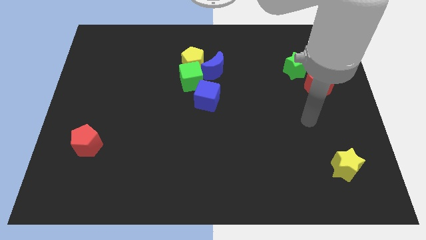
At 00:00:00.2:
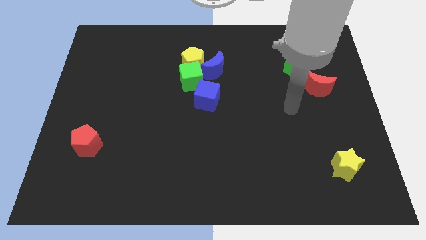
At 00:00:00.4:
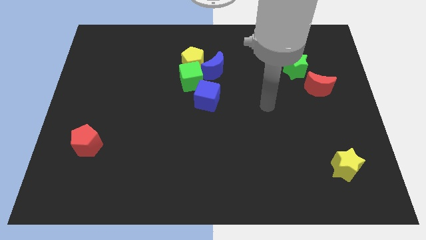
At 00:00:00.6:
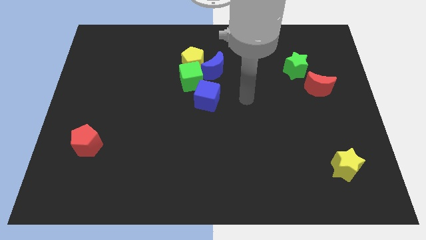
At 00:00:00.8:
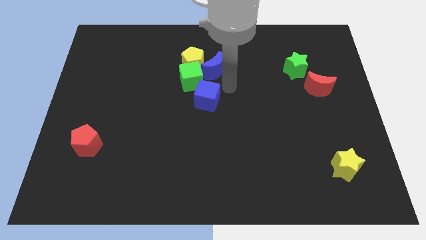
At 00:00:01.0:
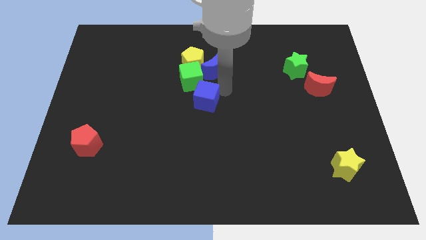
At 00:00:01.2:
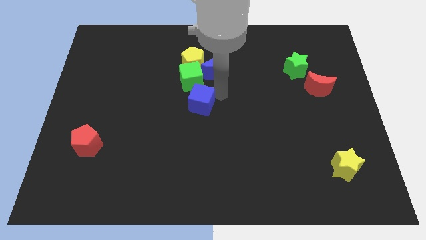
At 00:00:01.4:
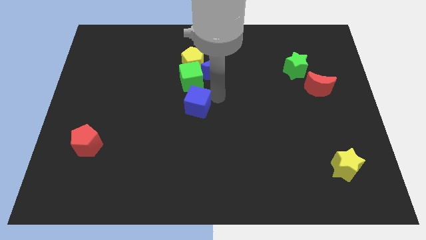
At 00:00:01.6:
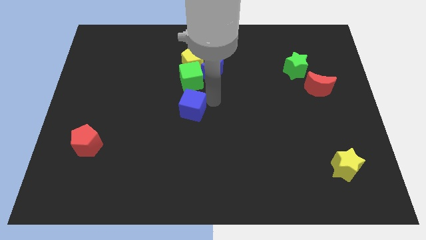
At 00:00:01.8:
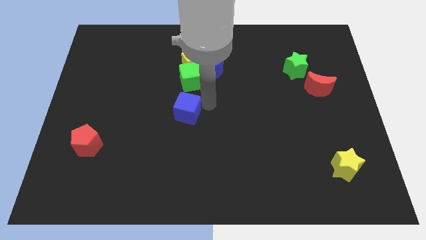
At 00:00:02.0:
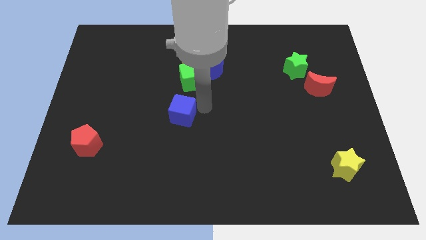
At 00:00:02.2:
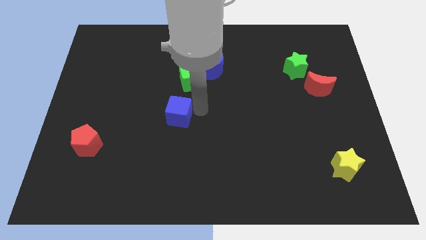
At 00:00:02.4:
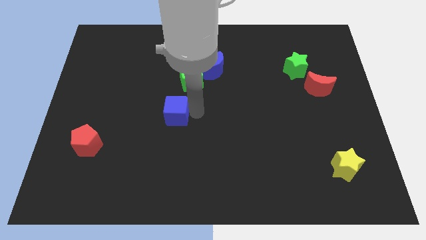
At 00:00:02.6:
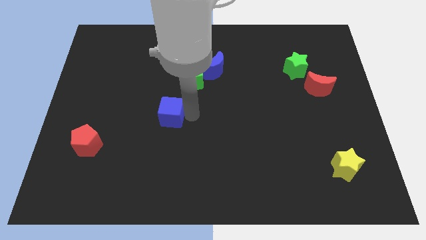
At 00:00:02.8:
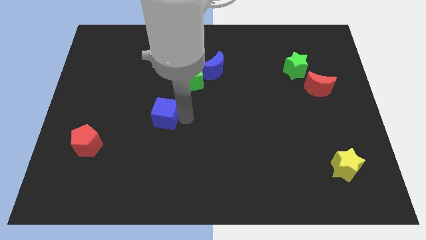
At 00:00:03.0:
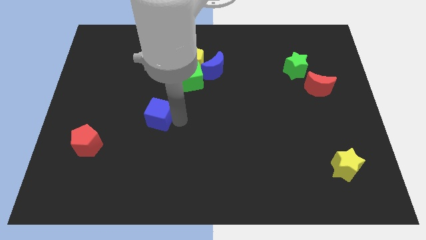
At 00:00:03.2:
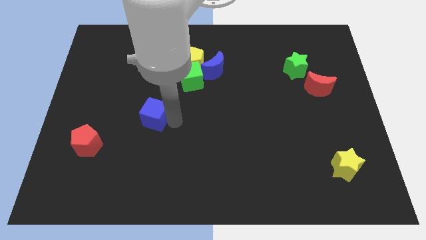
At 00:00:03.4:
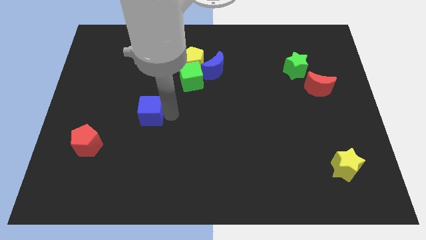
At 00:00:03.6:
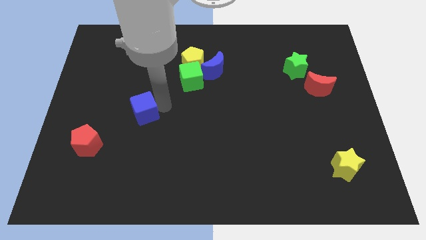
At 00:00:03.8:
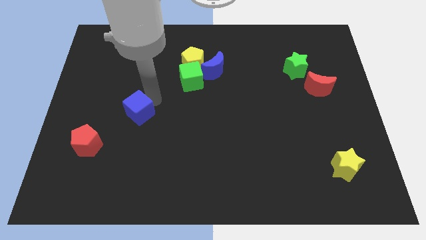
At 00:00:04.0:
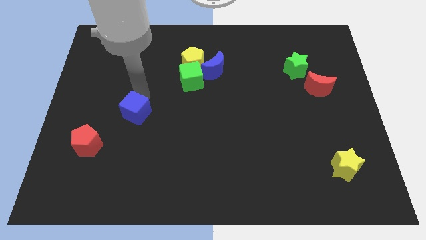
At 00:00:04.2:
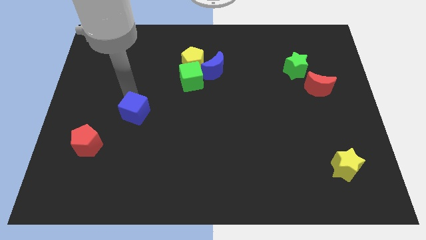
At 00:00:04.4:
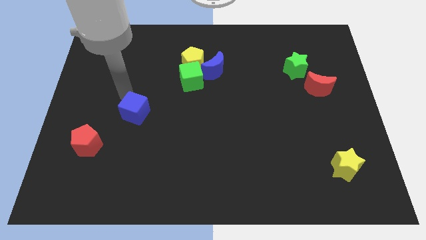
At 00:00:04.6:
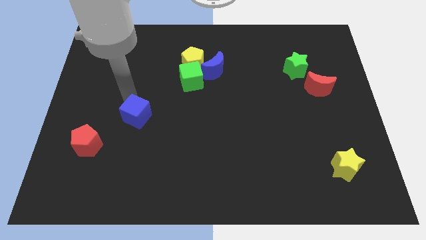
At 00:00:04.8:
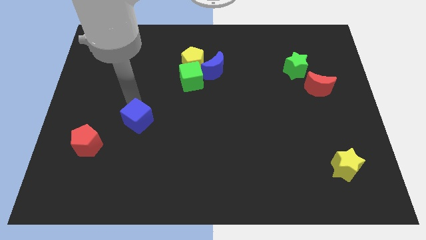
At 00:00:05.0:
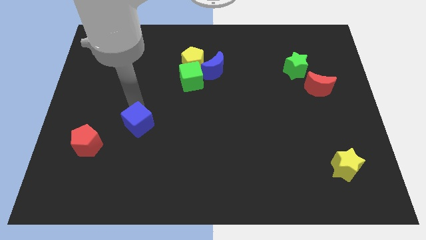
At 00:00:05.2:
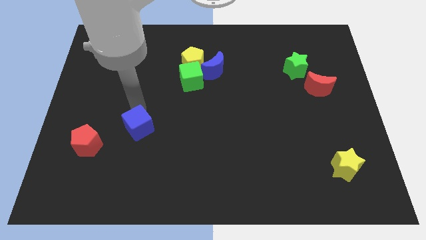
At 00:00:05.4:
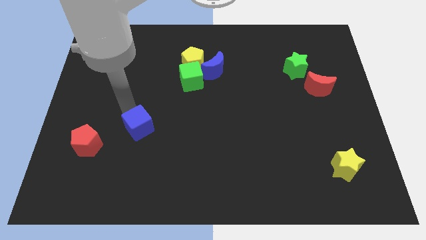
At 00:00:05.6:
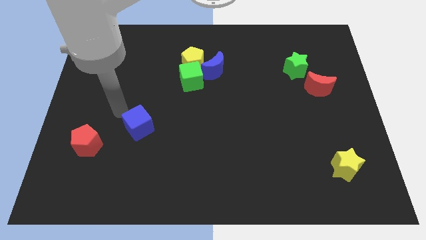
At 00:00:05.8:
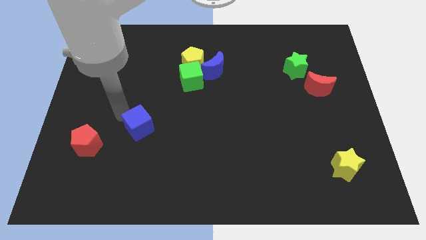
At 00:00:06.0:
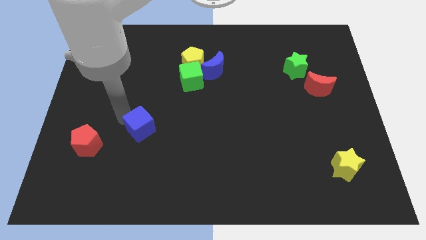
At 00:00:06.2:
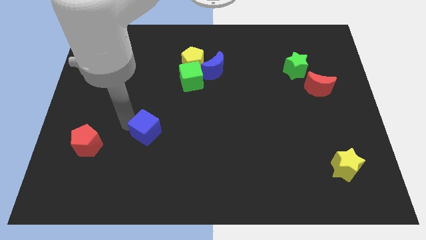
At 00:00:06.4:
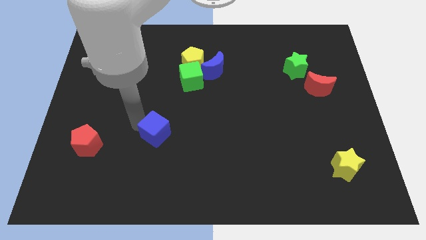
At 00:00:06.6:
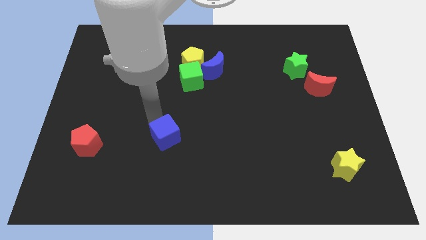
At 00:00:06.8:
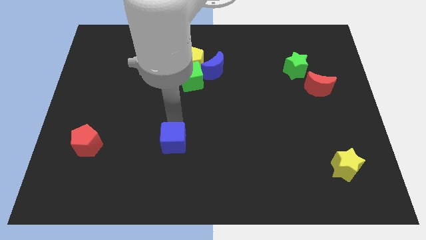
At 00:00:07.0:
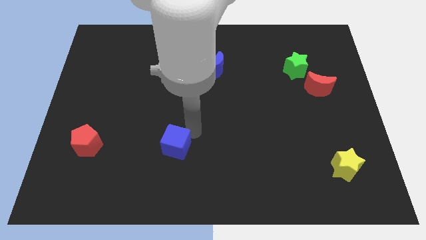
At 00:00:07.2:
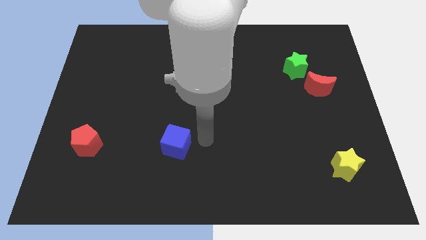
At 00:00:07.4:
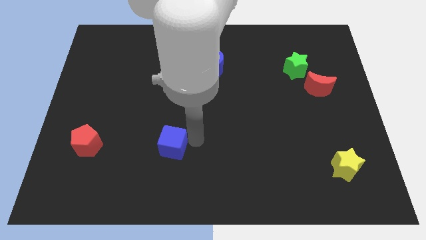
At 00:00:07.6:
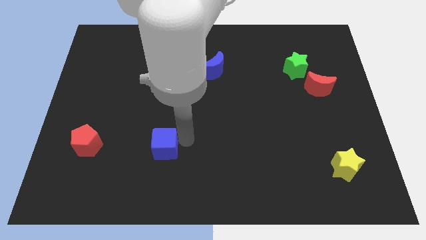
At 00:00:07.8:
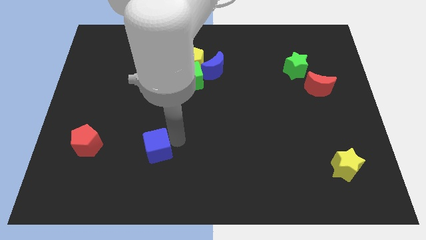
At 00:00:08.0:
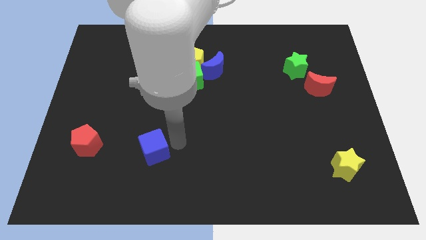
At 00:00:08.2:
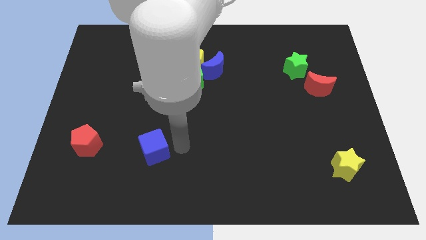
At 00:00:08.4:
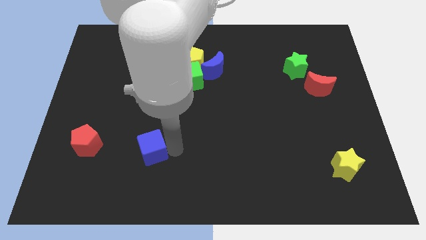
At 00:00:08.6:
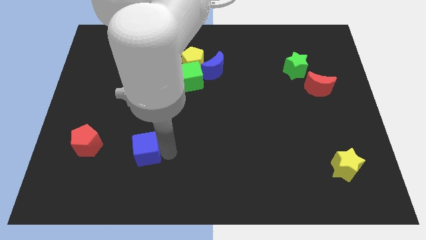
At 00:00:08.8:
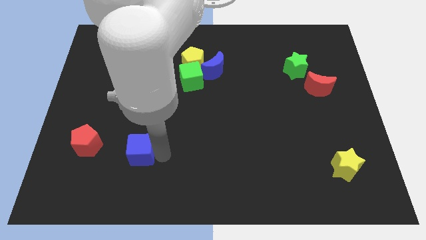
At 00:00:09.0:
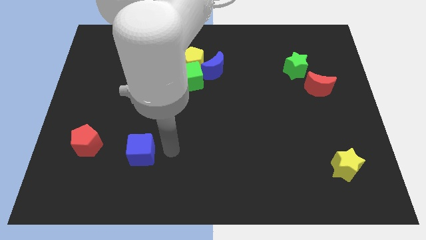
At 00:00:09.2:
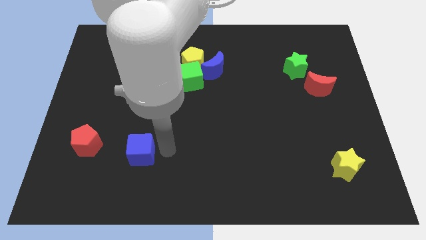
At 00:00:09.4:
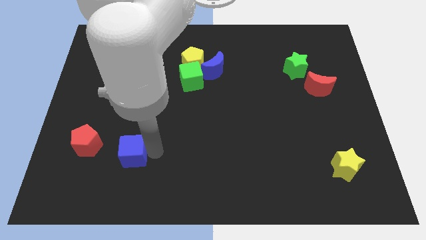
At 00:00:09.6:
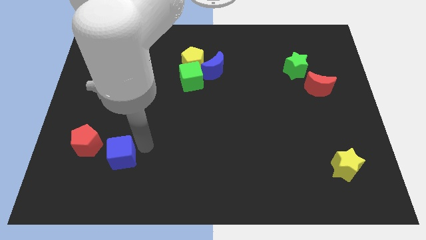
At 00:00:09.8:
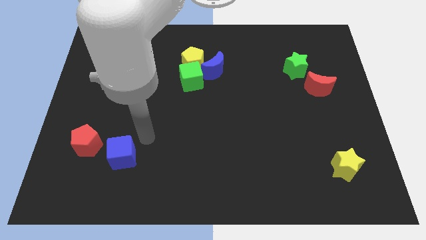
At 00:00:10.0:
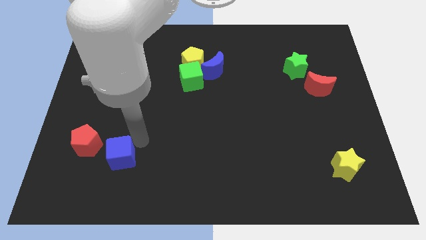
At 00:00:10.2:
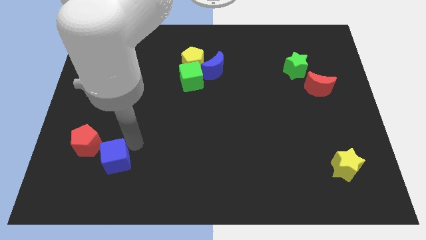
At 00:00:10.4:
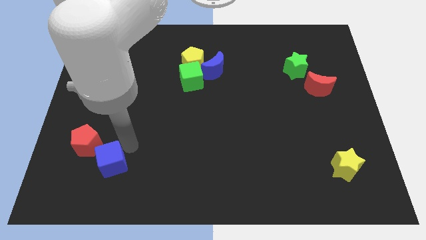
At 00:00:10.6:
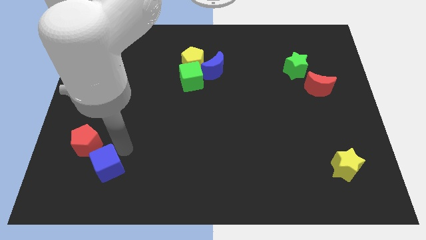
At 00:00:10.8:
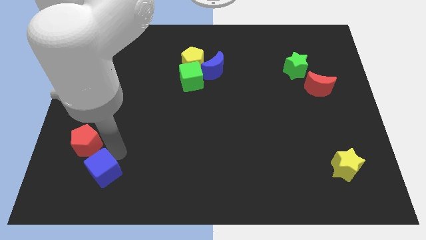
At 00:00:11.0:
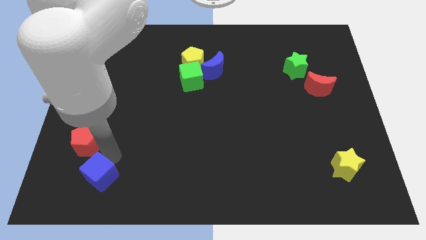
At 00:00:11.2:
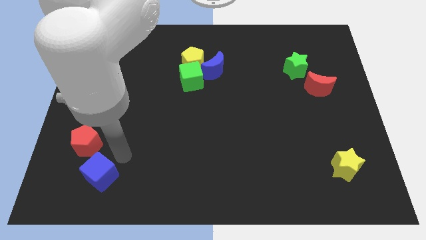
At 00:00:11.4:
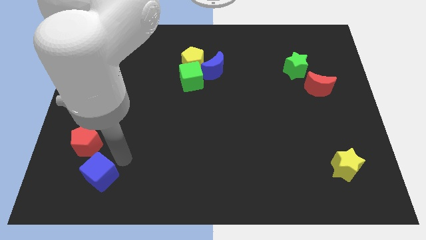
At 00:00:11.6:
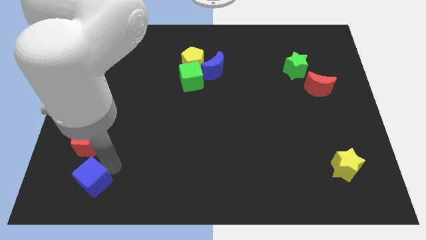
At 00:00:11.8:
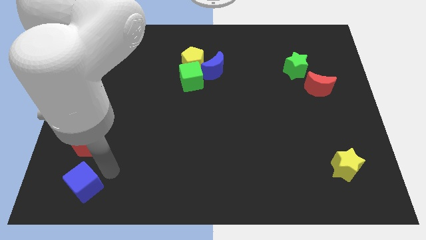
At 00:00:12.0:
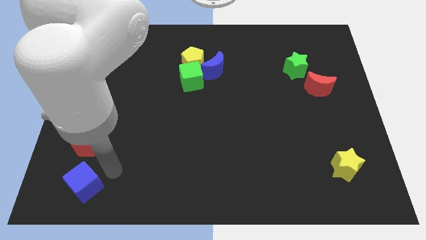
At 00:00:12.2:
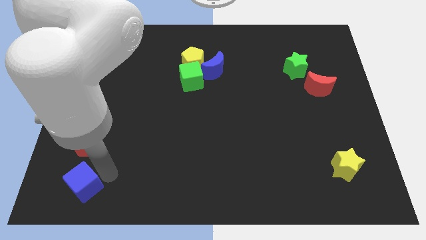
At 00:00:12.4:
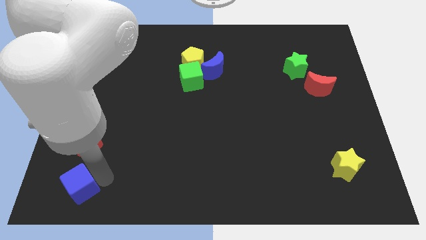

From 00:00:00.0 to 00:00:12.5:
move the blue cube to the bottom left of the board

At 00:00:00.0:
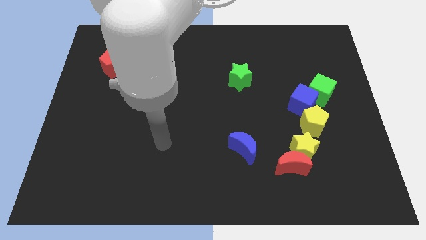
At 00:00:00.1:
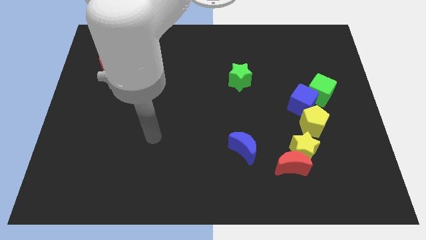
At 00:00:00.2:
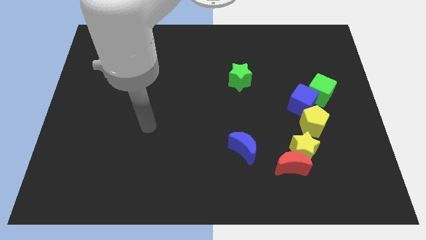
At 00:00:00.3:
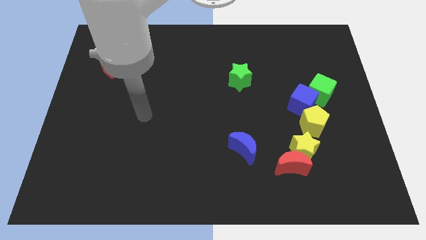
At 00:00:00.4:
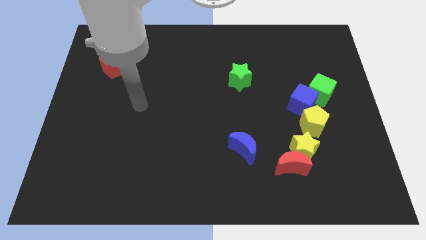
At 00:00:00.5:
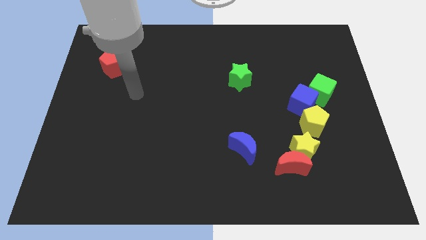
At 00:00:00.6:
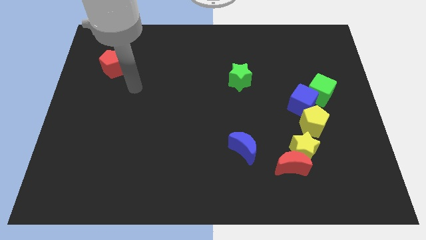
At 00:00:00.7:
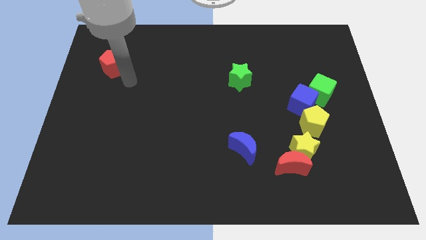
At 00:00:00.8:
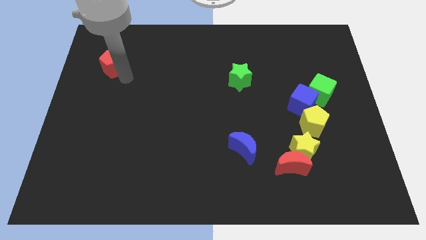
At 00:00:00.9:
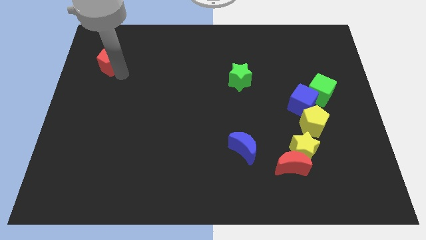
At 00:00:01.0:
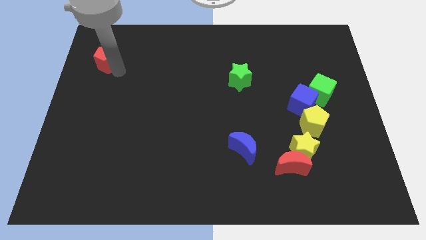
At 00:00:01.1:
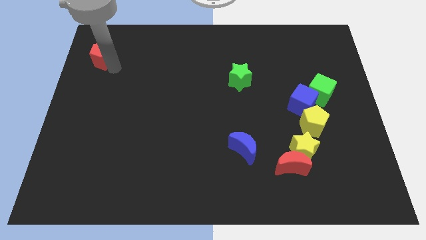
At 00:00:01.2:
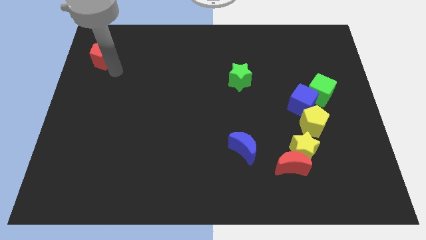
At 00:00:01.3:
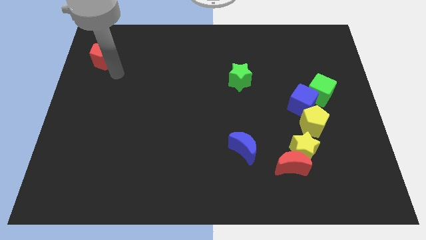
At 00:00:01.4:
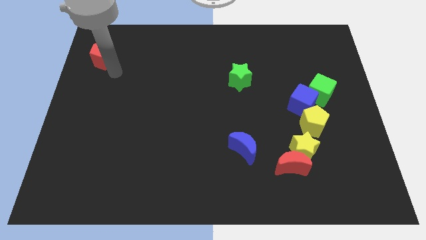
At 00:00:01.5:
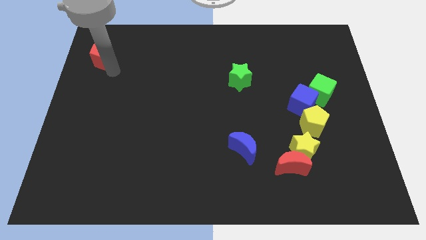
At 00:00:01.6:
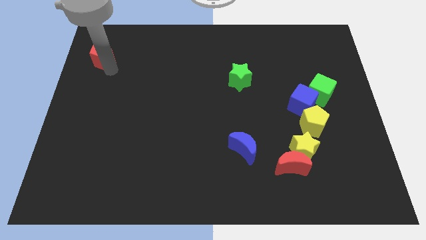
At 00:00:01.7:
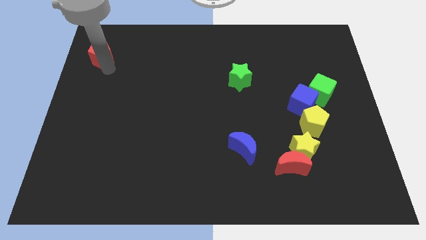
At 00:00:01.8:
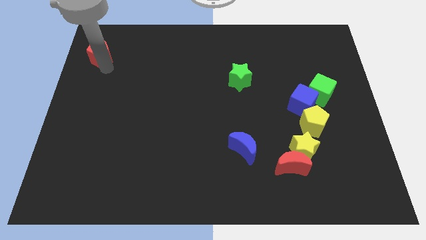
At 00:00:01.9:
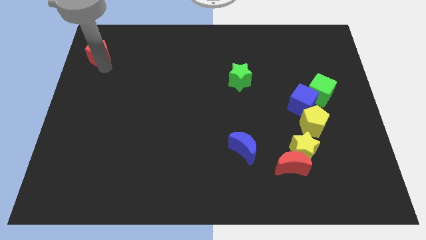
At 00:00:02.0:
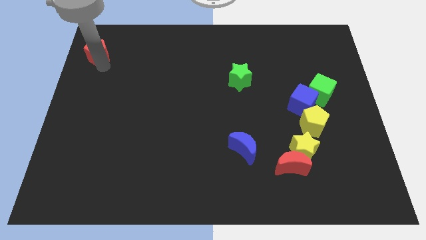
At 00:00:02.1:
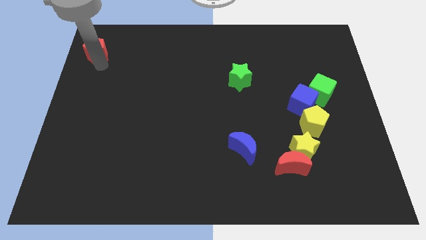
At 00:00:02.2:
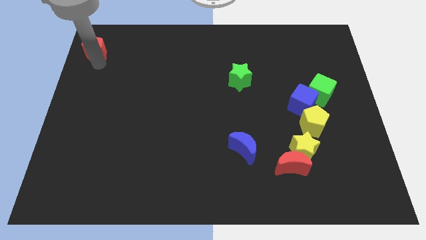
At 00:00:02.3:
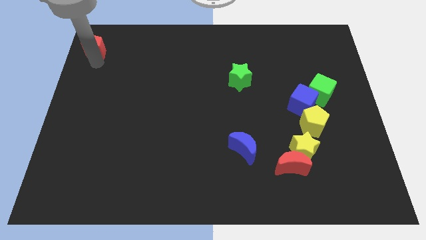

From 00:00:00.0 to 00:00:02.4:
put the red pentagon to the upper left corner
